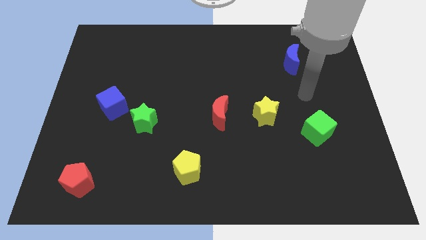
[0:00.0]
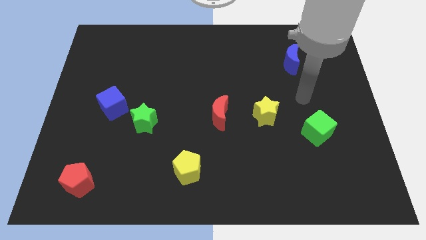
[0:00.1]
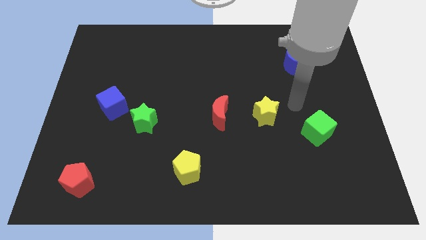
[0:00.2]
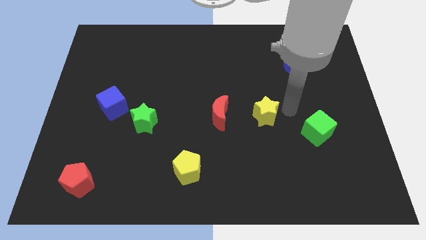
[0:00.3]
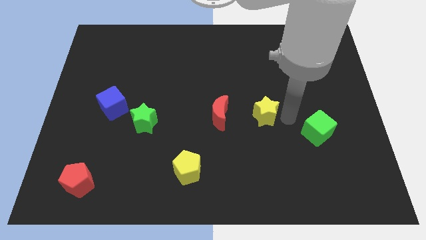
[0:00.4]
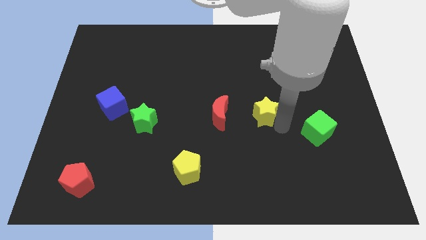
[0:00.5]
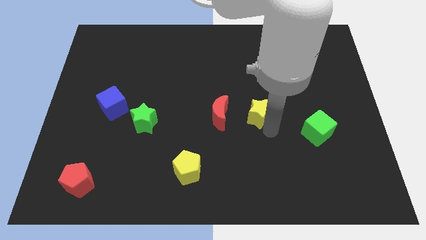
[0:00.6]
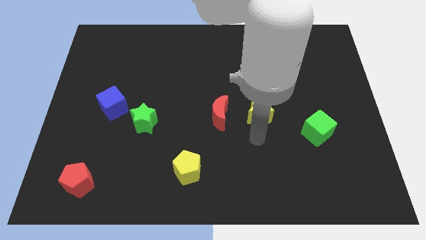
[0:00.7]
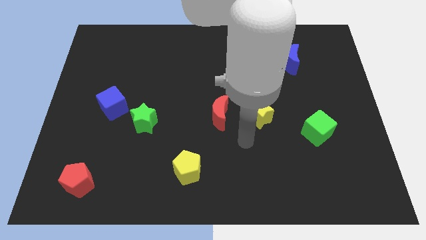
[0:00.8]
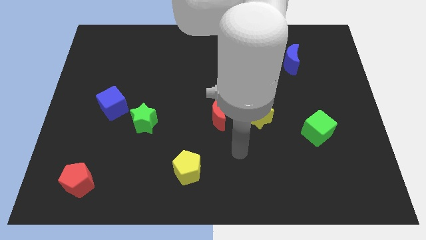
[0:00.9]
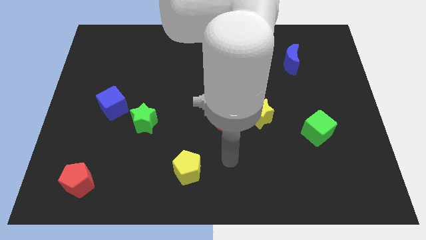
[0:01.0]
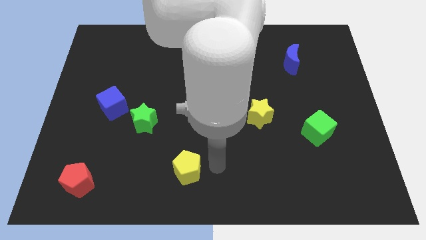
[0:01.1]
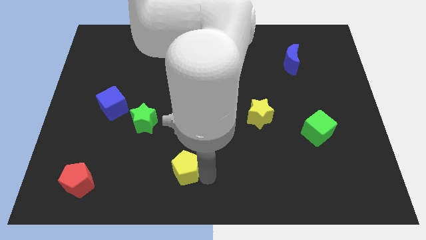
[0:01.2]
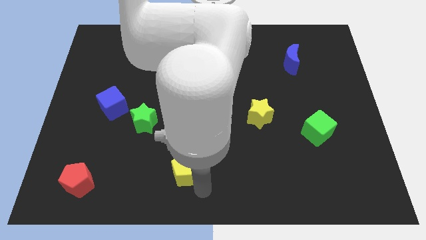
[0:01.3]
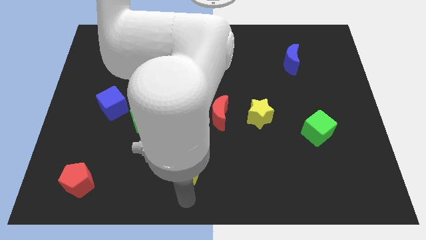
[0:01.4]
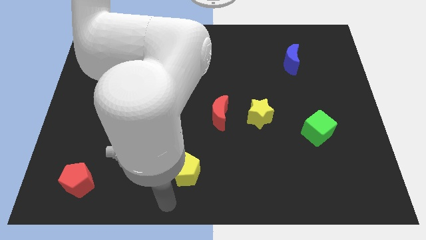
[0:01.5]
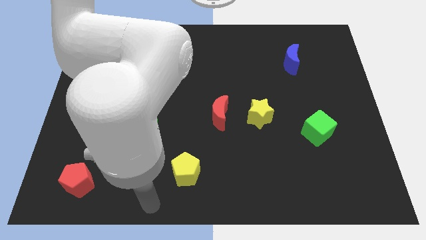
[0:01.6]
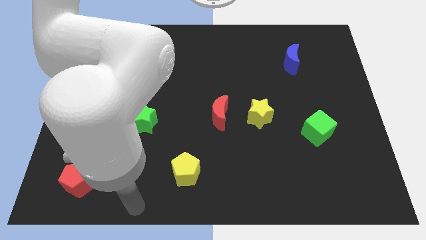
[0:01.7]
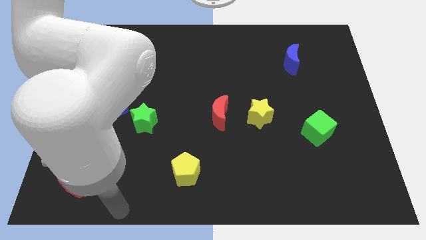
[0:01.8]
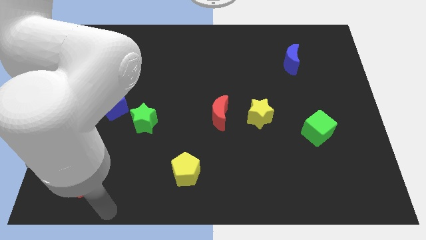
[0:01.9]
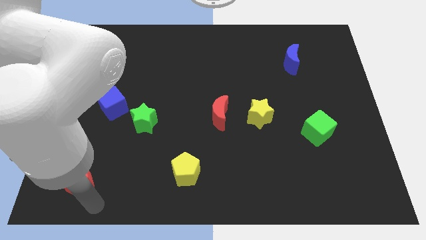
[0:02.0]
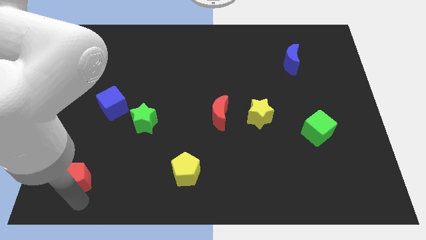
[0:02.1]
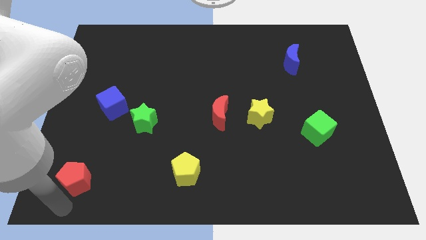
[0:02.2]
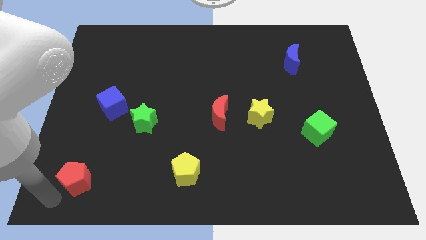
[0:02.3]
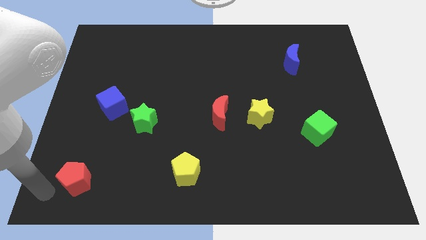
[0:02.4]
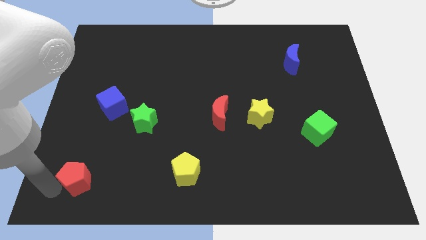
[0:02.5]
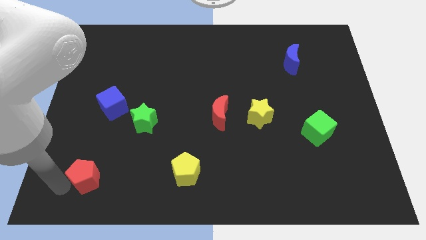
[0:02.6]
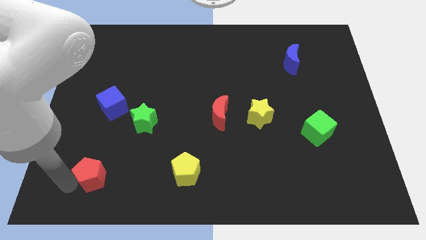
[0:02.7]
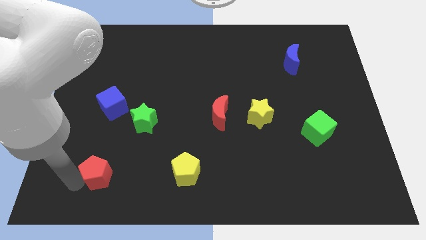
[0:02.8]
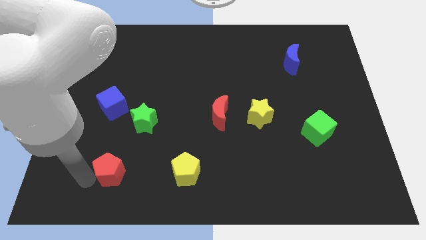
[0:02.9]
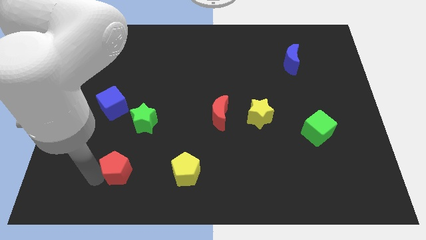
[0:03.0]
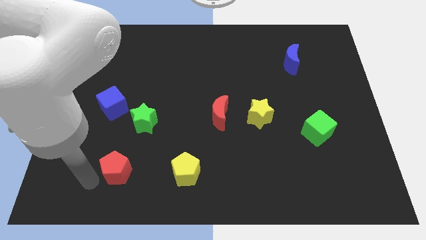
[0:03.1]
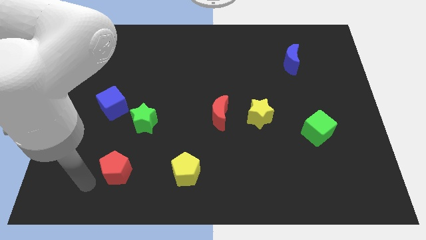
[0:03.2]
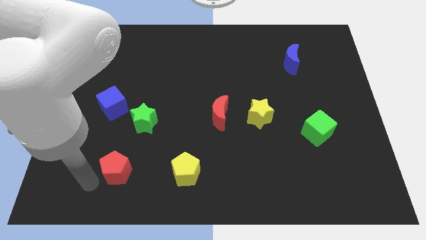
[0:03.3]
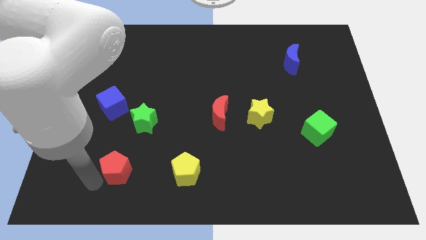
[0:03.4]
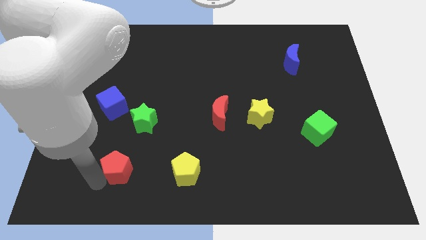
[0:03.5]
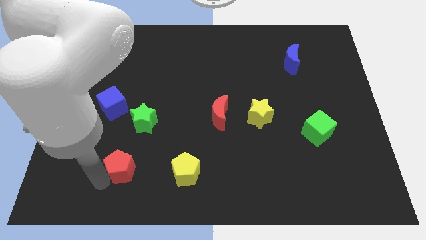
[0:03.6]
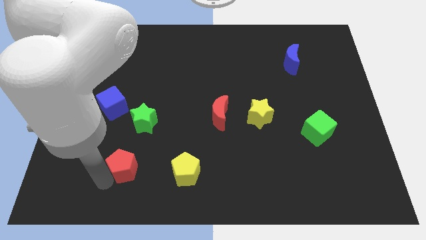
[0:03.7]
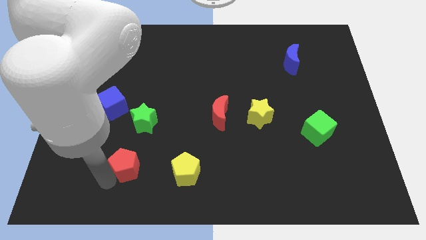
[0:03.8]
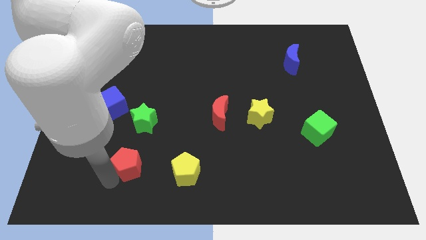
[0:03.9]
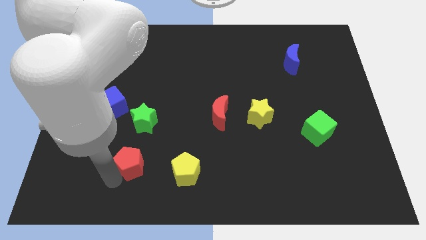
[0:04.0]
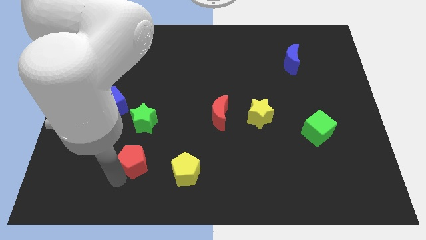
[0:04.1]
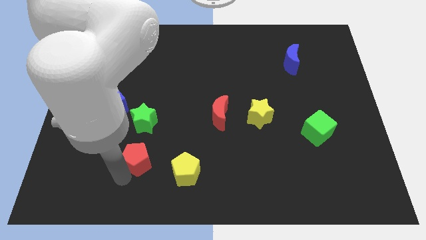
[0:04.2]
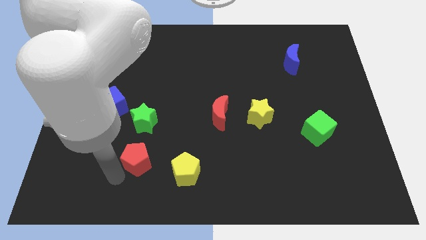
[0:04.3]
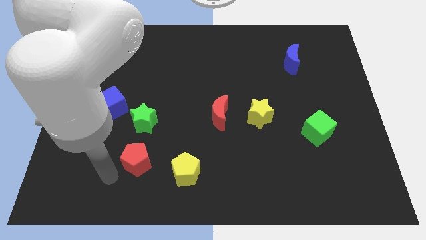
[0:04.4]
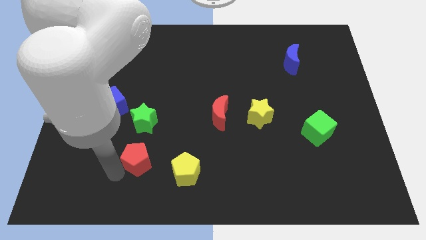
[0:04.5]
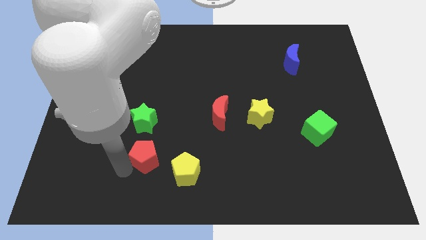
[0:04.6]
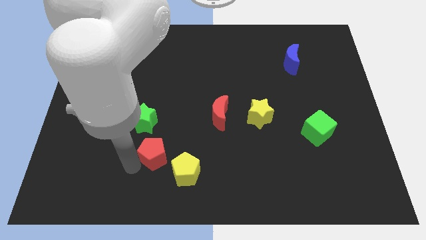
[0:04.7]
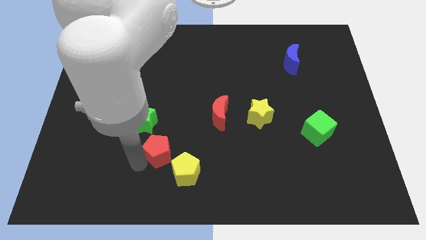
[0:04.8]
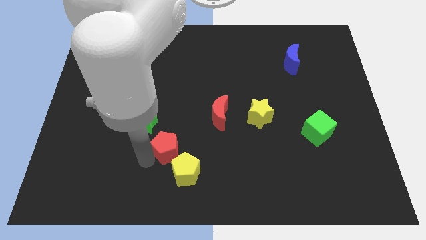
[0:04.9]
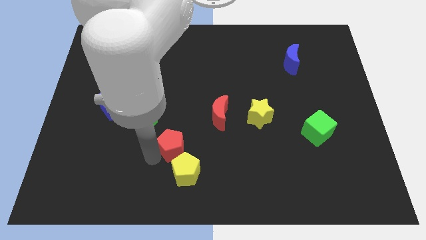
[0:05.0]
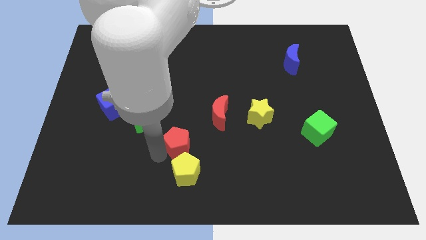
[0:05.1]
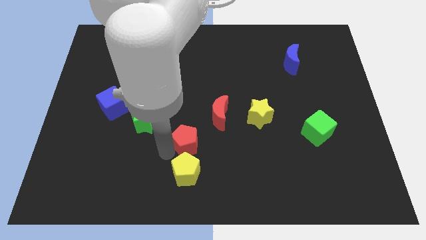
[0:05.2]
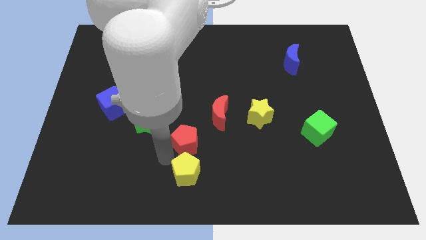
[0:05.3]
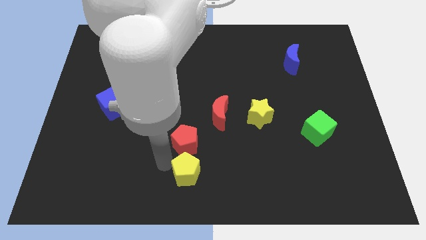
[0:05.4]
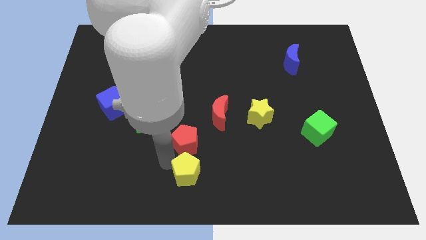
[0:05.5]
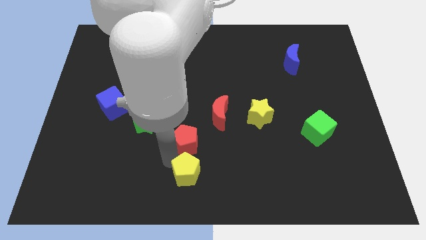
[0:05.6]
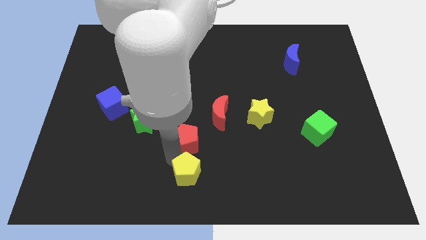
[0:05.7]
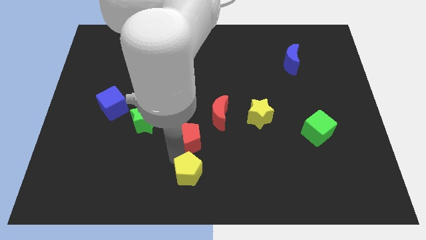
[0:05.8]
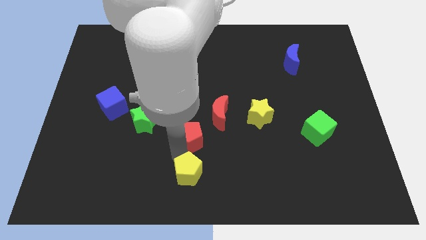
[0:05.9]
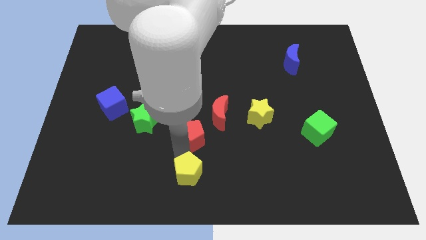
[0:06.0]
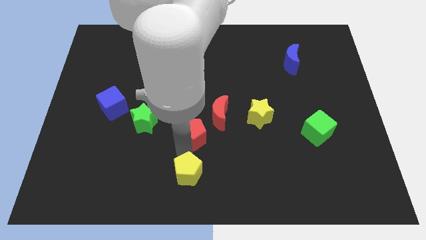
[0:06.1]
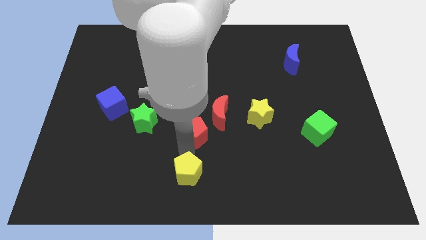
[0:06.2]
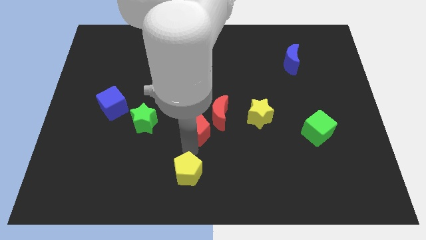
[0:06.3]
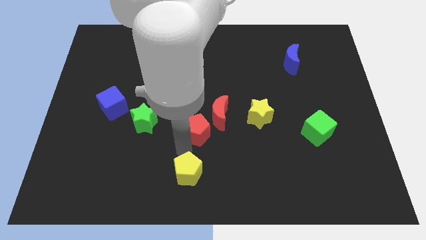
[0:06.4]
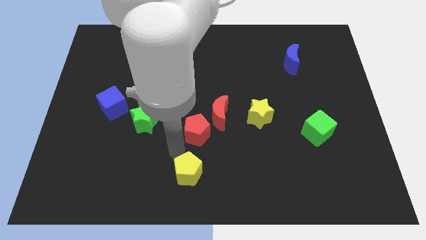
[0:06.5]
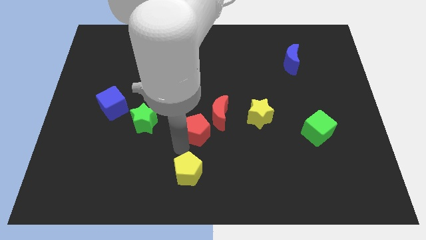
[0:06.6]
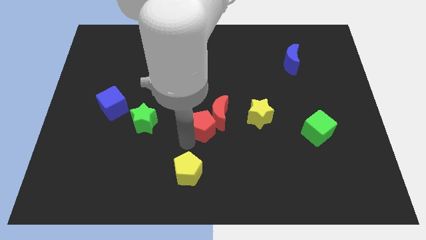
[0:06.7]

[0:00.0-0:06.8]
put the red pentagon to the red moon

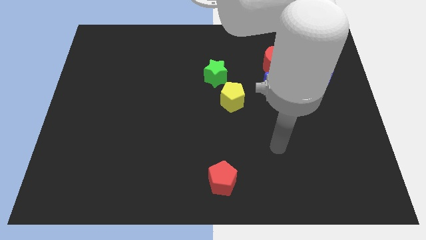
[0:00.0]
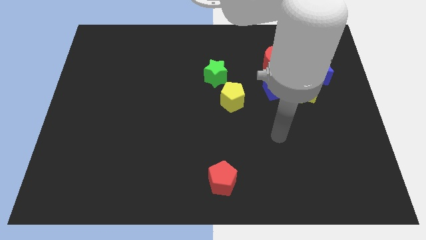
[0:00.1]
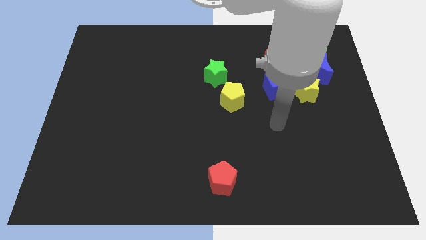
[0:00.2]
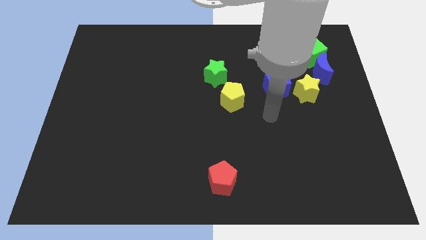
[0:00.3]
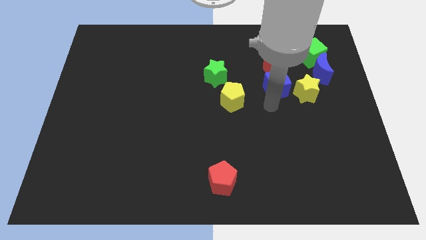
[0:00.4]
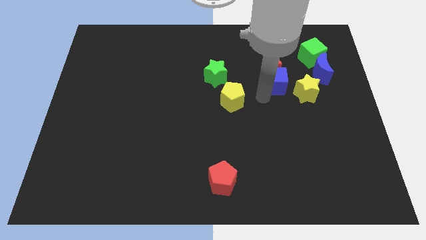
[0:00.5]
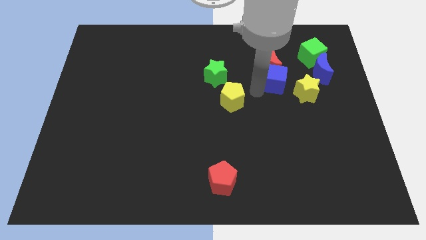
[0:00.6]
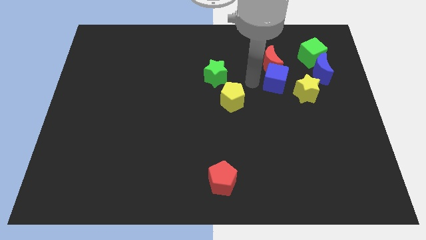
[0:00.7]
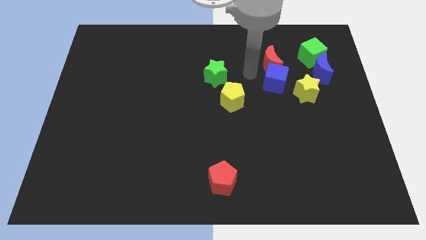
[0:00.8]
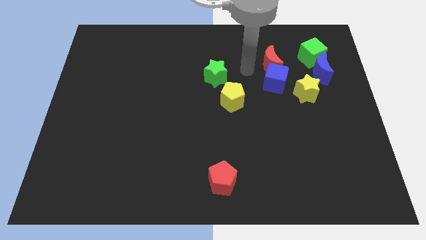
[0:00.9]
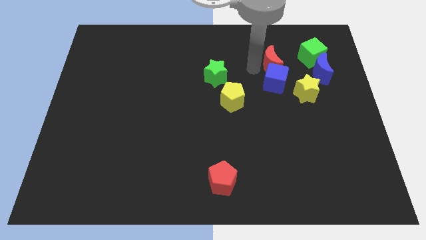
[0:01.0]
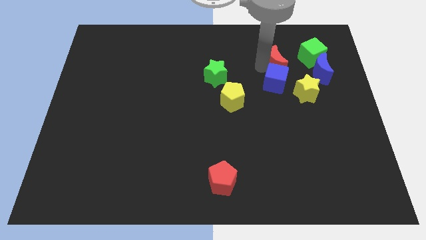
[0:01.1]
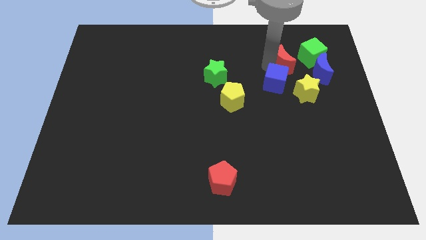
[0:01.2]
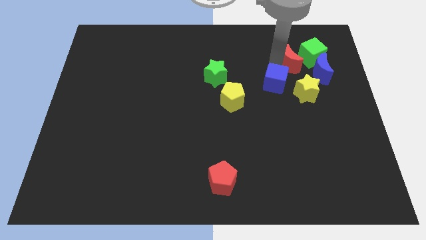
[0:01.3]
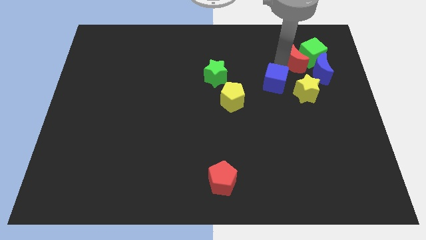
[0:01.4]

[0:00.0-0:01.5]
push the red moon towards the green cube
